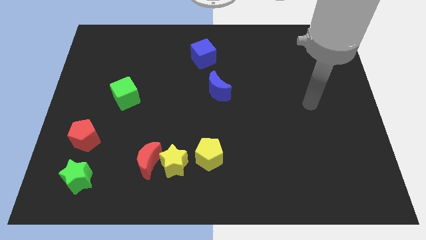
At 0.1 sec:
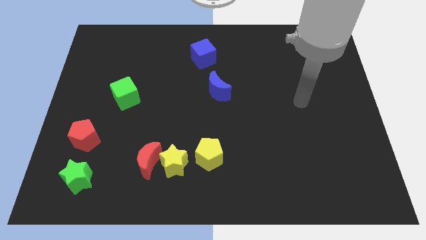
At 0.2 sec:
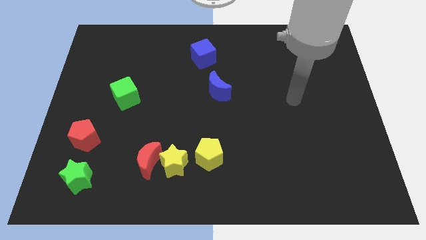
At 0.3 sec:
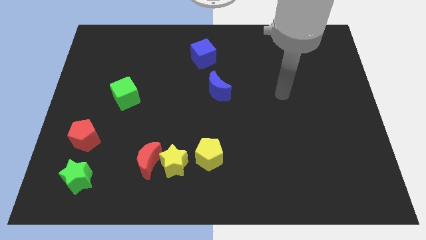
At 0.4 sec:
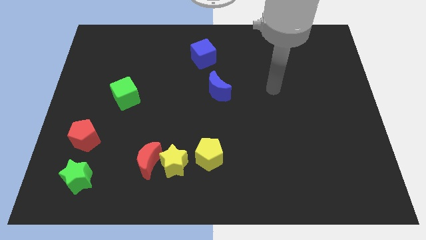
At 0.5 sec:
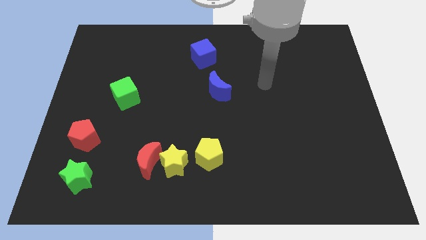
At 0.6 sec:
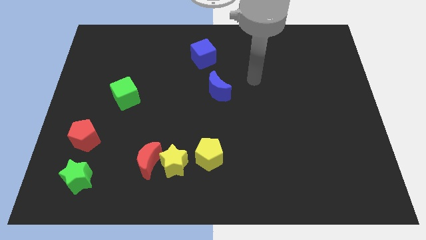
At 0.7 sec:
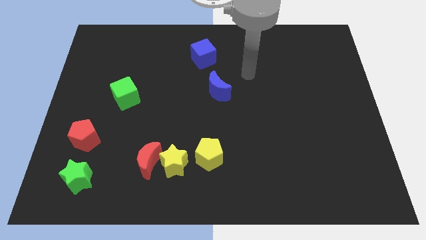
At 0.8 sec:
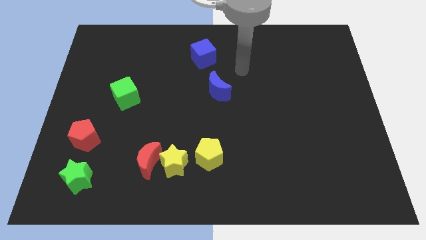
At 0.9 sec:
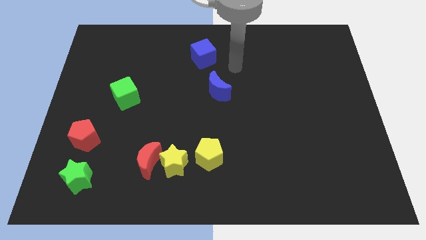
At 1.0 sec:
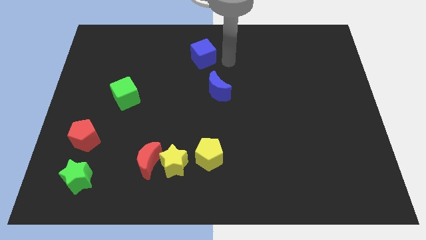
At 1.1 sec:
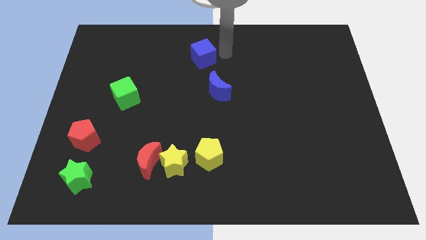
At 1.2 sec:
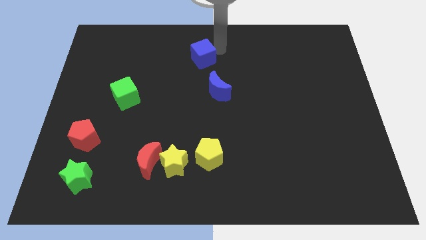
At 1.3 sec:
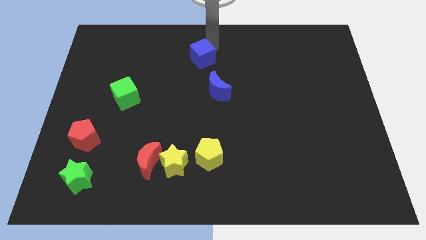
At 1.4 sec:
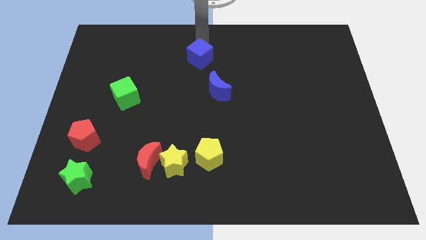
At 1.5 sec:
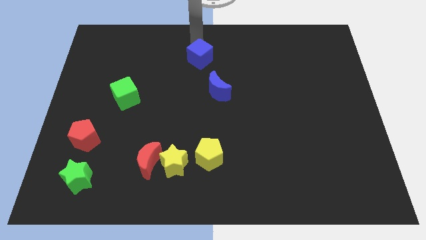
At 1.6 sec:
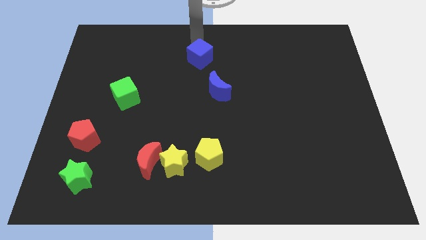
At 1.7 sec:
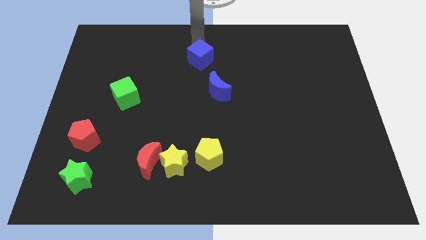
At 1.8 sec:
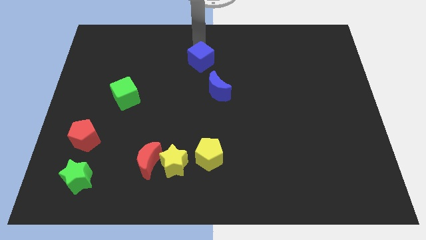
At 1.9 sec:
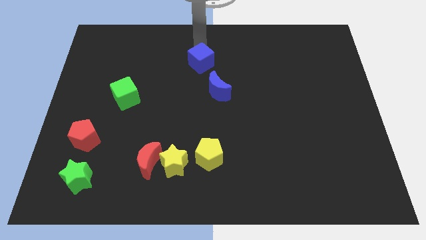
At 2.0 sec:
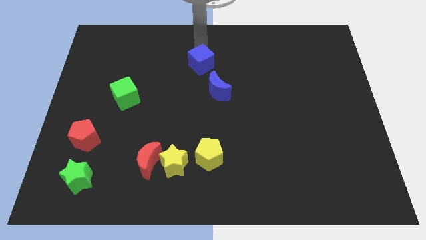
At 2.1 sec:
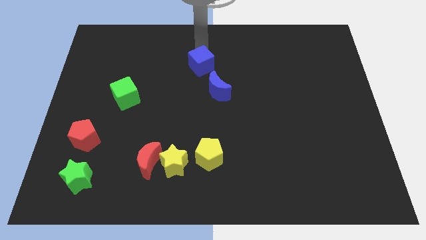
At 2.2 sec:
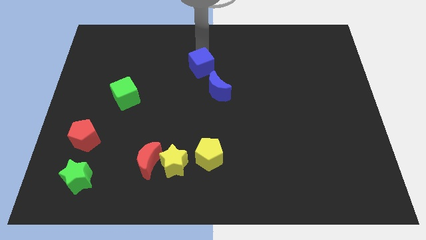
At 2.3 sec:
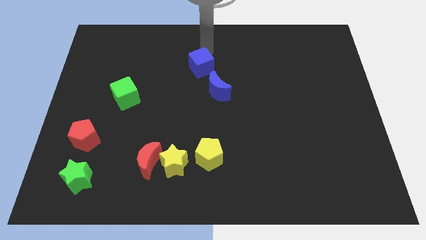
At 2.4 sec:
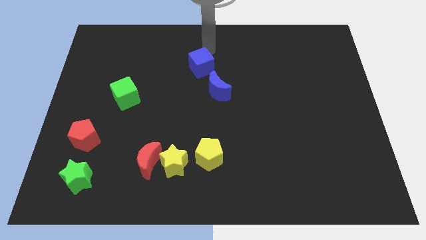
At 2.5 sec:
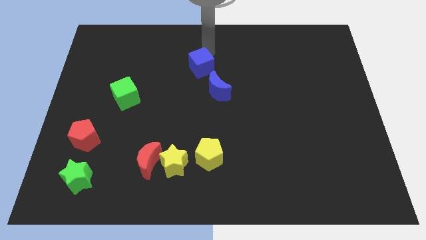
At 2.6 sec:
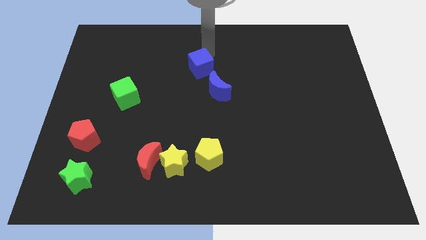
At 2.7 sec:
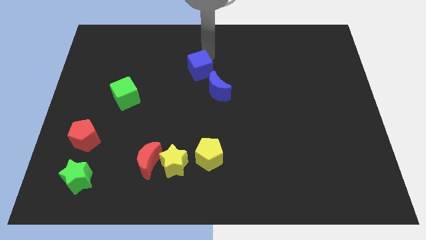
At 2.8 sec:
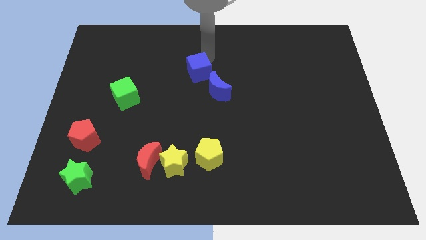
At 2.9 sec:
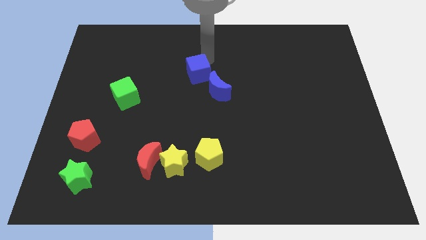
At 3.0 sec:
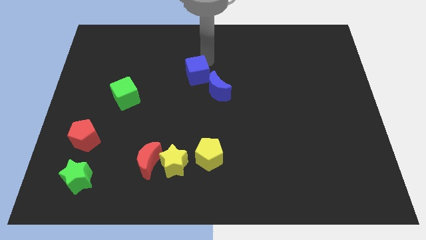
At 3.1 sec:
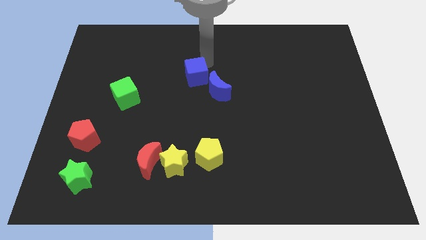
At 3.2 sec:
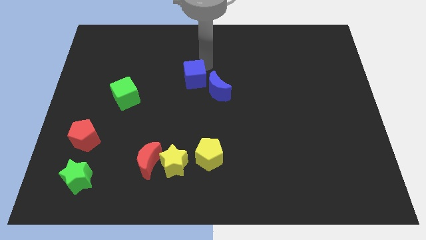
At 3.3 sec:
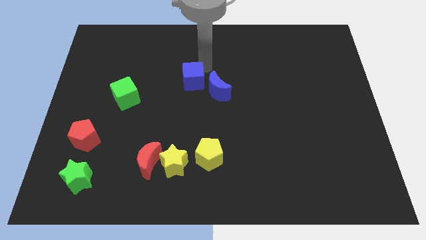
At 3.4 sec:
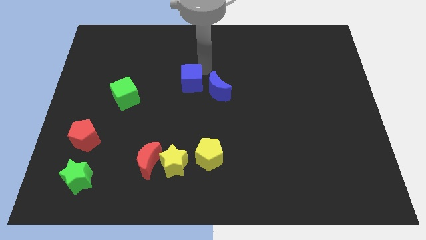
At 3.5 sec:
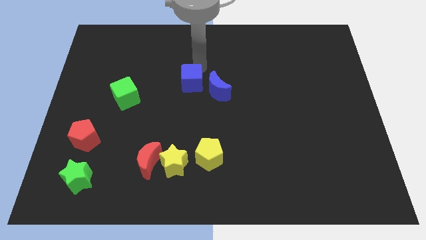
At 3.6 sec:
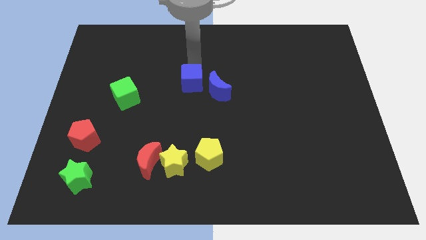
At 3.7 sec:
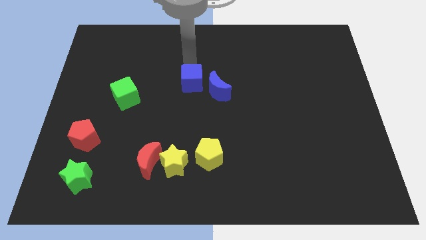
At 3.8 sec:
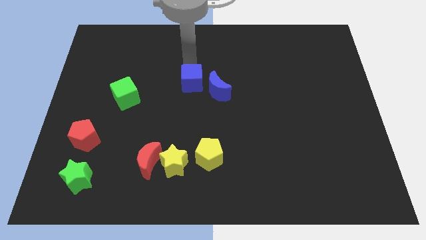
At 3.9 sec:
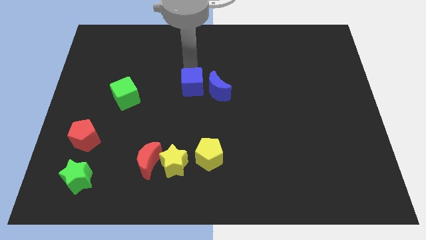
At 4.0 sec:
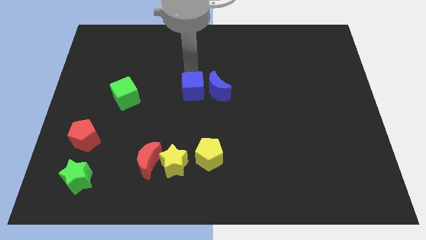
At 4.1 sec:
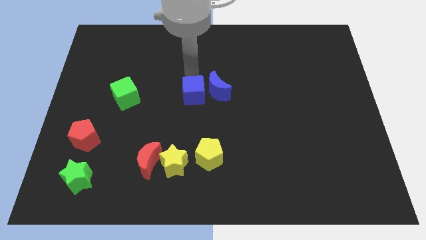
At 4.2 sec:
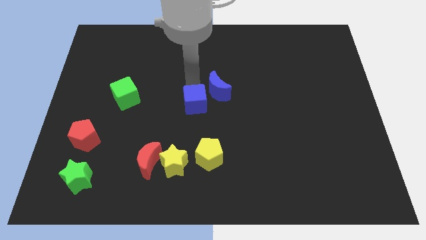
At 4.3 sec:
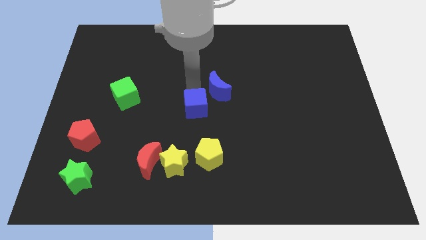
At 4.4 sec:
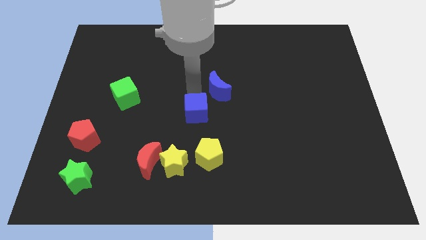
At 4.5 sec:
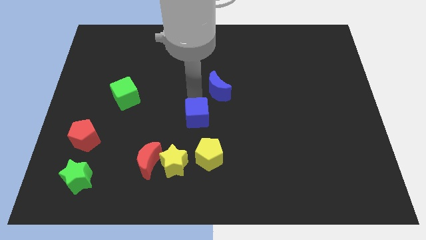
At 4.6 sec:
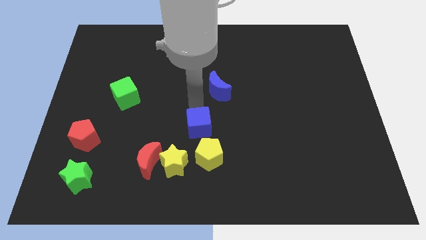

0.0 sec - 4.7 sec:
put the blue cube to the top right of the yellow star

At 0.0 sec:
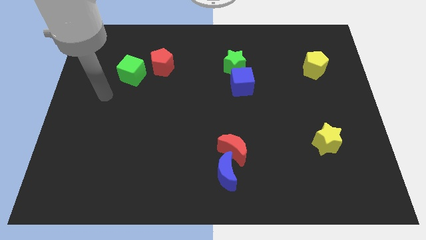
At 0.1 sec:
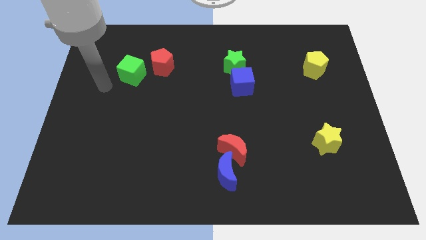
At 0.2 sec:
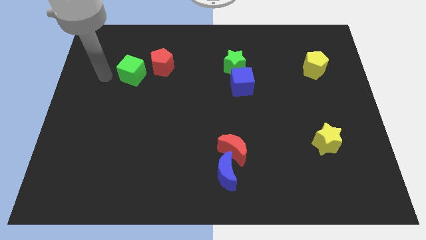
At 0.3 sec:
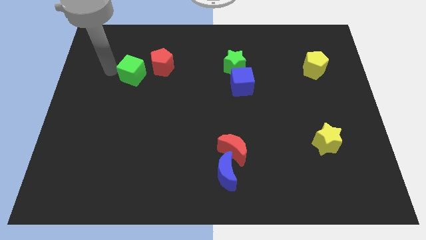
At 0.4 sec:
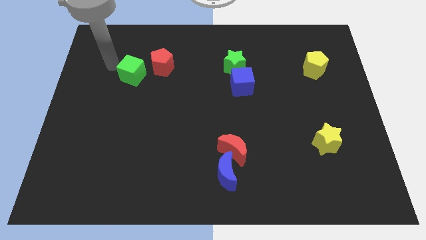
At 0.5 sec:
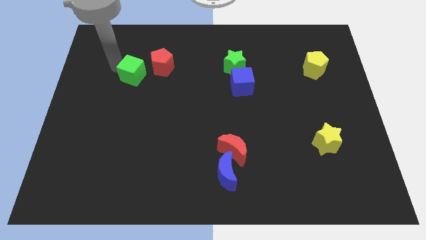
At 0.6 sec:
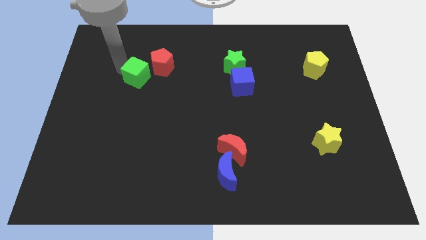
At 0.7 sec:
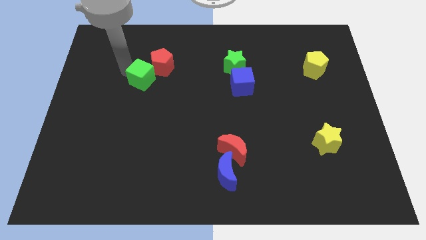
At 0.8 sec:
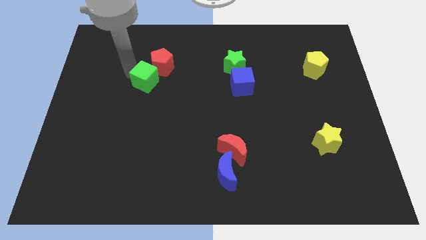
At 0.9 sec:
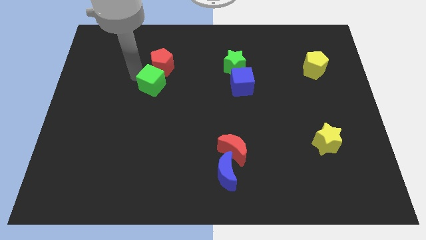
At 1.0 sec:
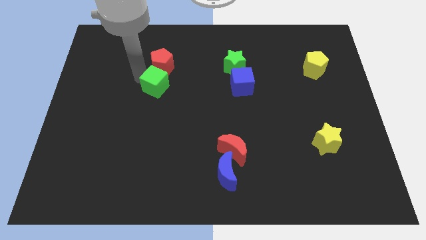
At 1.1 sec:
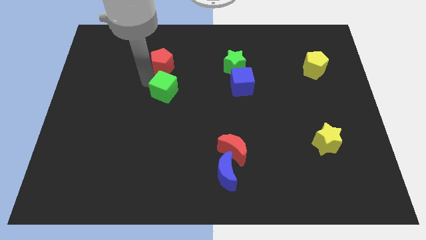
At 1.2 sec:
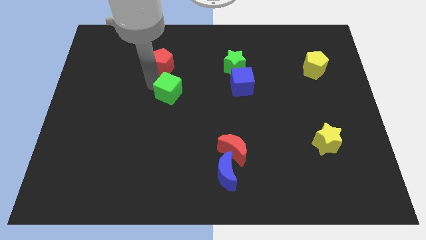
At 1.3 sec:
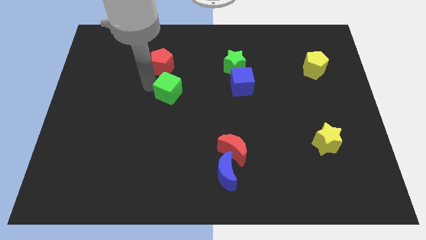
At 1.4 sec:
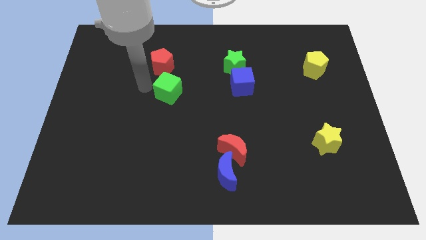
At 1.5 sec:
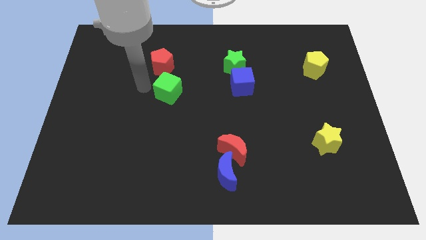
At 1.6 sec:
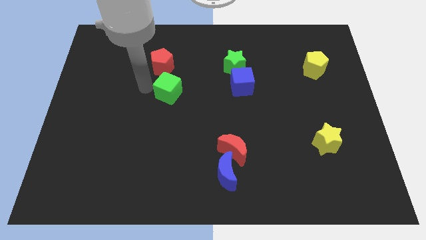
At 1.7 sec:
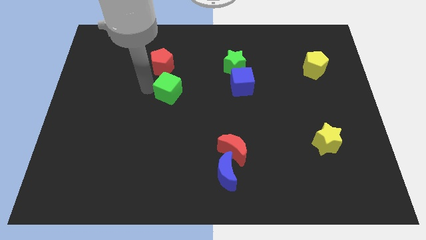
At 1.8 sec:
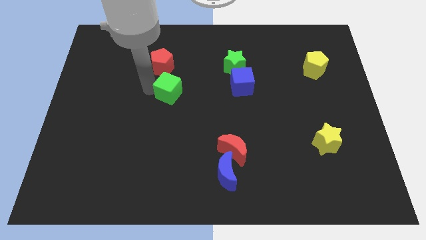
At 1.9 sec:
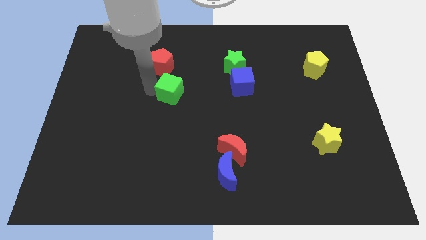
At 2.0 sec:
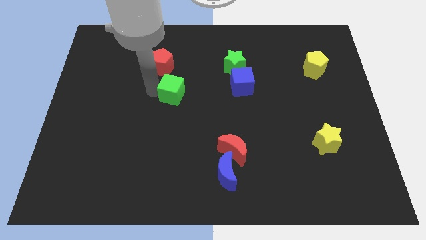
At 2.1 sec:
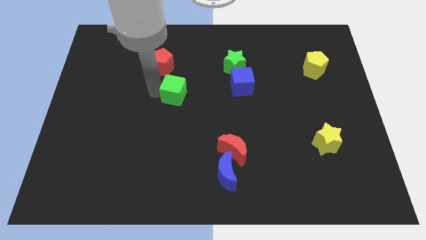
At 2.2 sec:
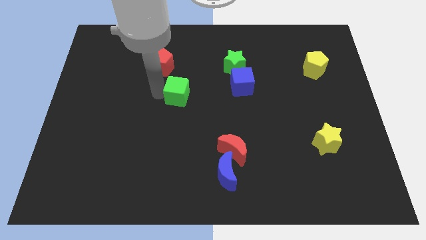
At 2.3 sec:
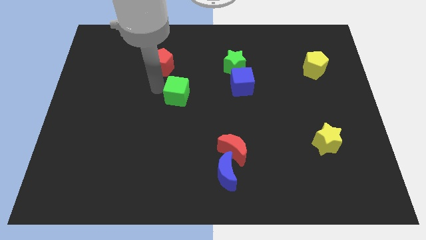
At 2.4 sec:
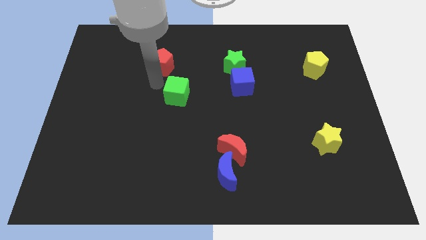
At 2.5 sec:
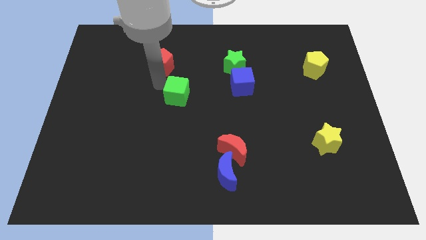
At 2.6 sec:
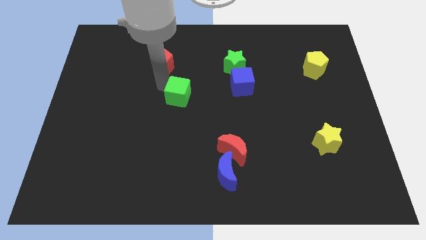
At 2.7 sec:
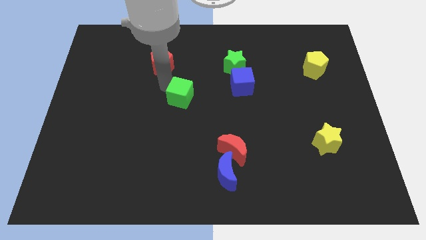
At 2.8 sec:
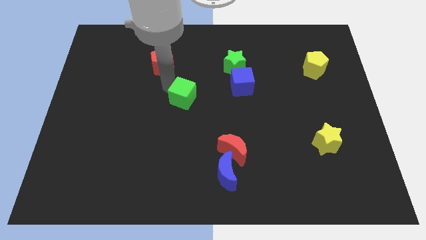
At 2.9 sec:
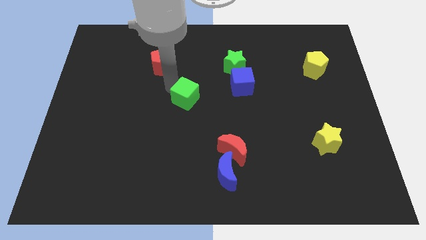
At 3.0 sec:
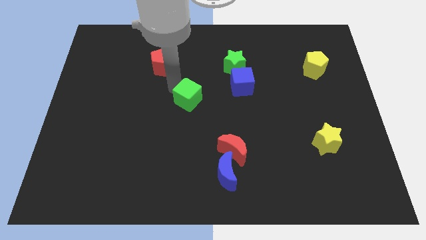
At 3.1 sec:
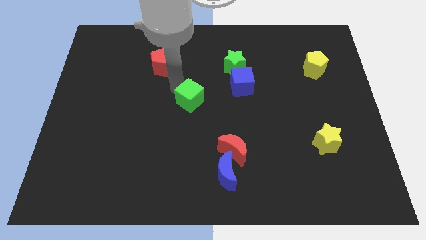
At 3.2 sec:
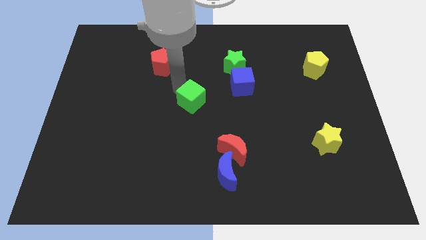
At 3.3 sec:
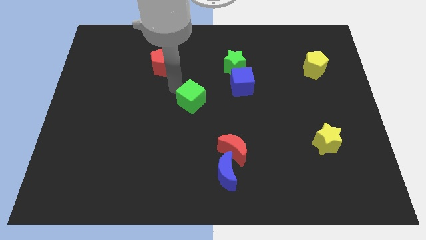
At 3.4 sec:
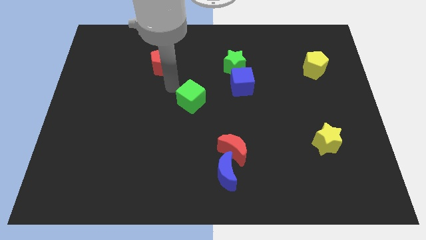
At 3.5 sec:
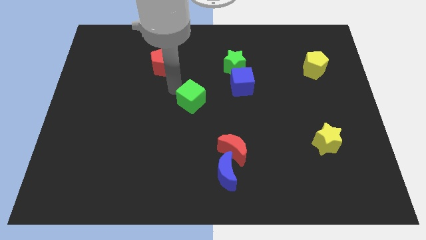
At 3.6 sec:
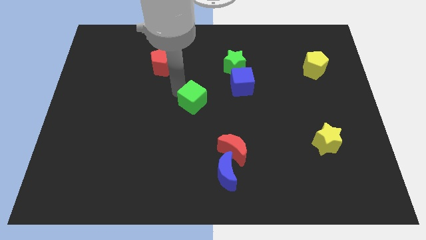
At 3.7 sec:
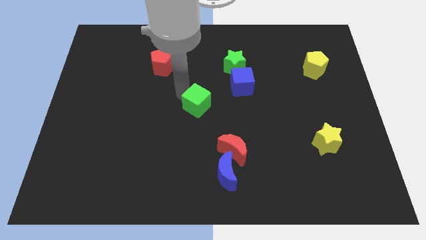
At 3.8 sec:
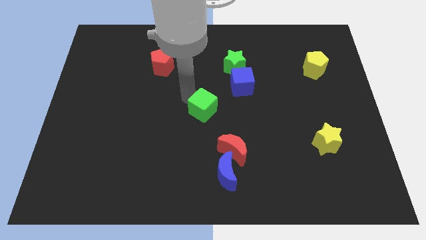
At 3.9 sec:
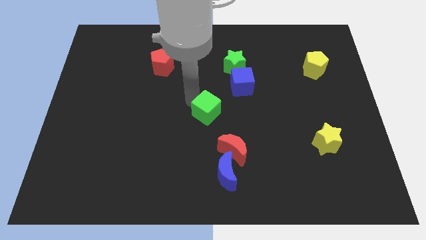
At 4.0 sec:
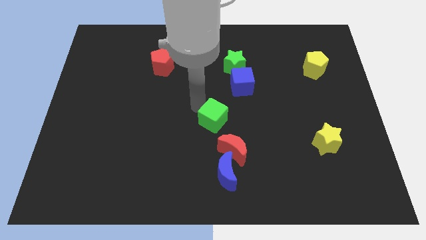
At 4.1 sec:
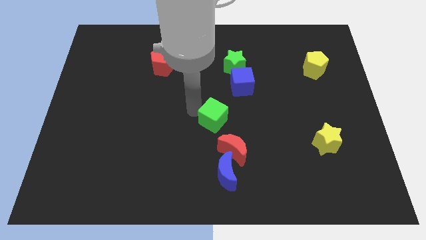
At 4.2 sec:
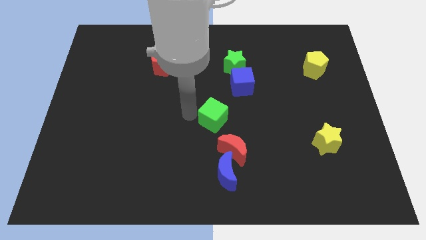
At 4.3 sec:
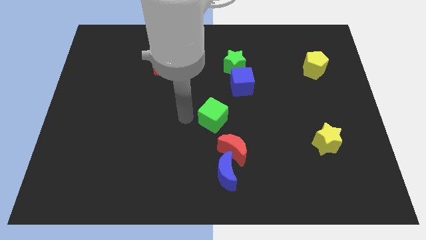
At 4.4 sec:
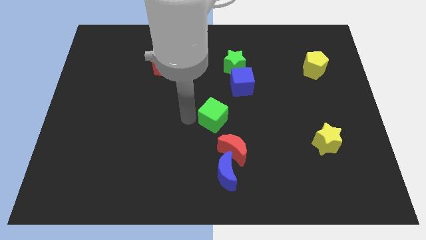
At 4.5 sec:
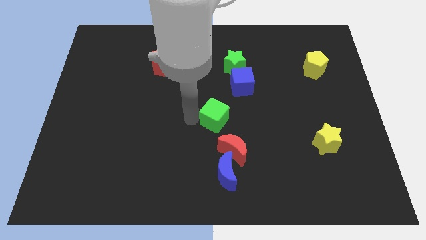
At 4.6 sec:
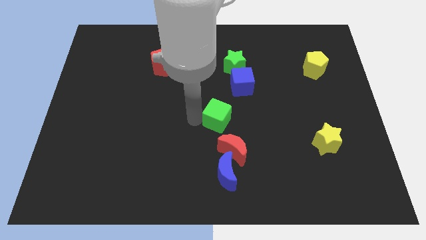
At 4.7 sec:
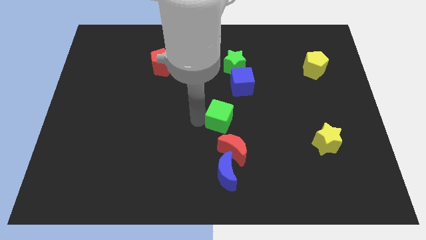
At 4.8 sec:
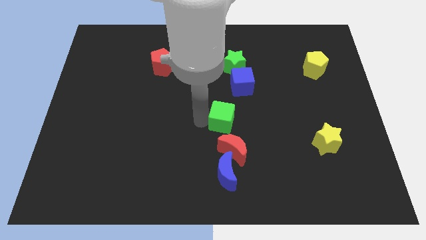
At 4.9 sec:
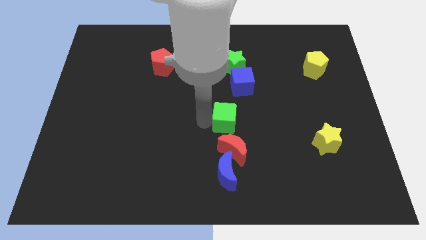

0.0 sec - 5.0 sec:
push the green cube to the bottom of the blue cube
